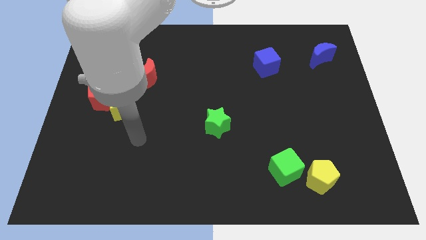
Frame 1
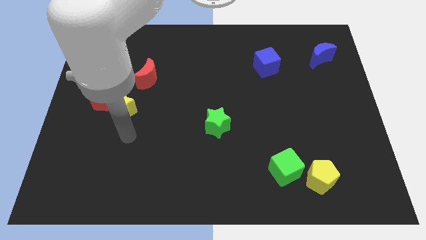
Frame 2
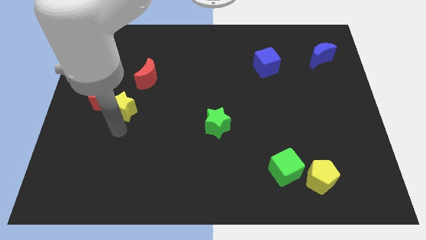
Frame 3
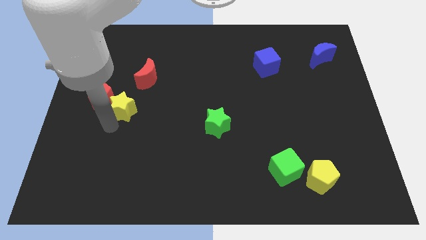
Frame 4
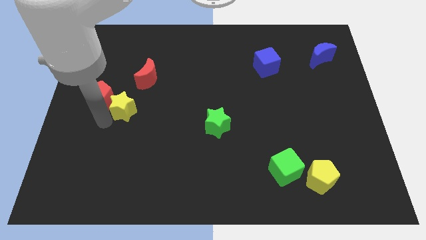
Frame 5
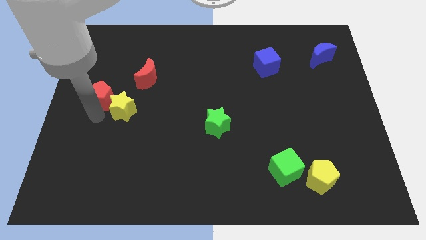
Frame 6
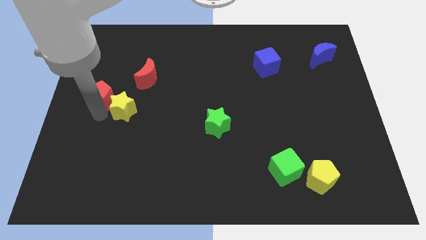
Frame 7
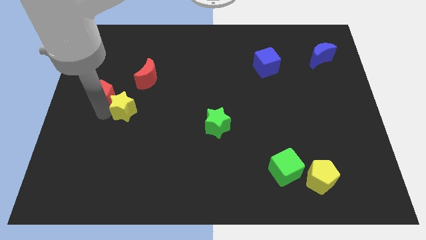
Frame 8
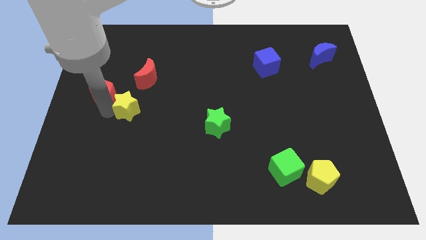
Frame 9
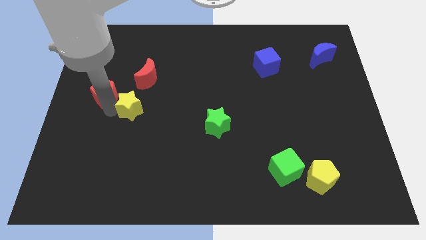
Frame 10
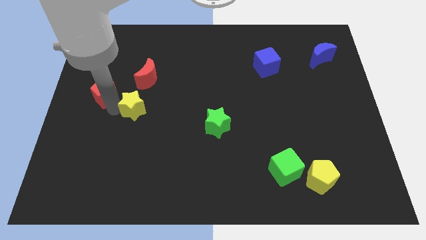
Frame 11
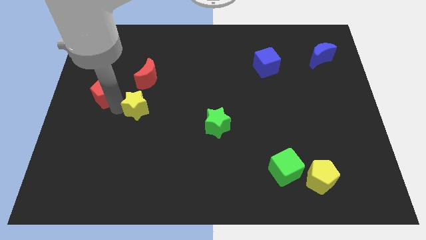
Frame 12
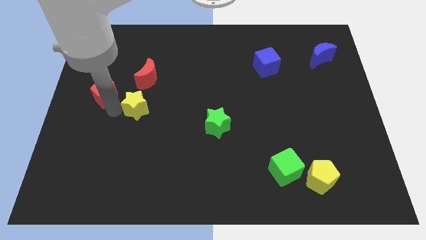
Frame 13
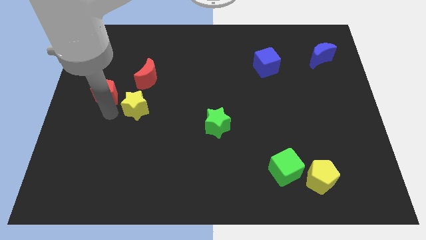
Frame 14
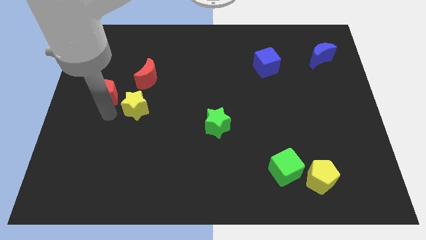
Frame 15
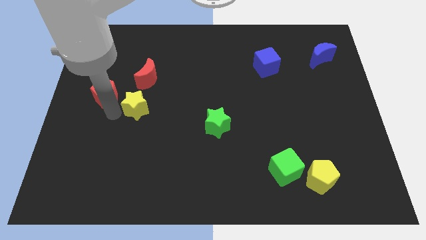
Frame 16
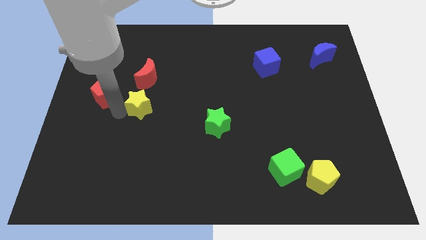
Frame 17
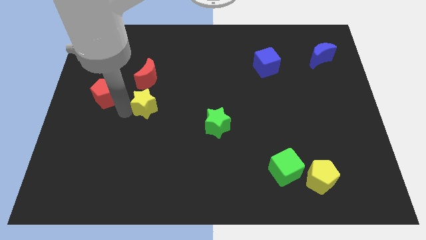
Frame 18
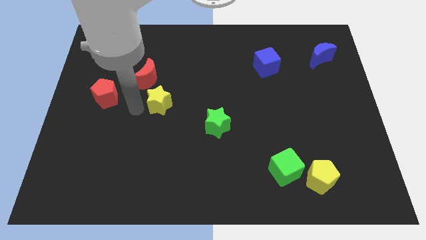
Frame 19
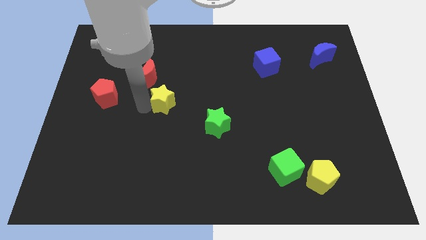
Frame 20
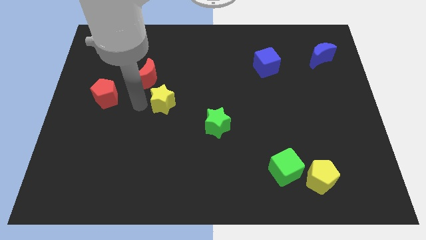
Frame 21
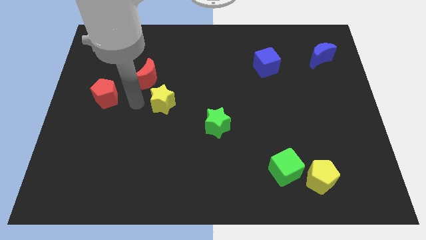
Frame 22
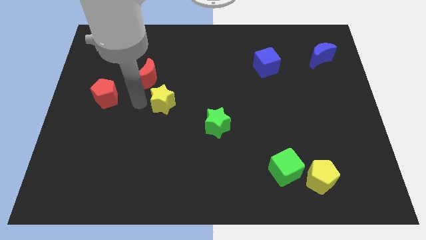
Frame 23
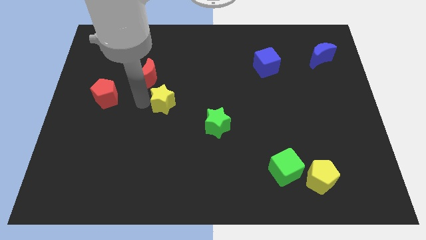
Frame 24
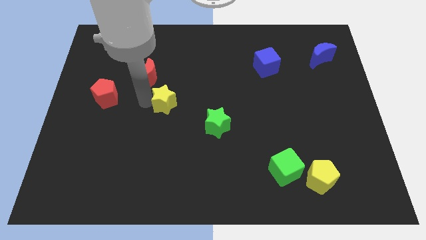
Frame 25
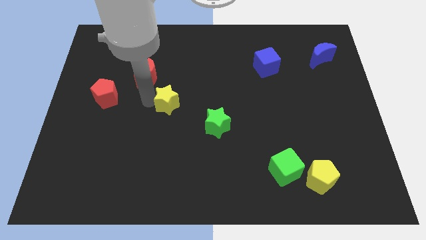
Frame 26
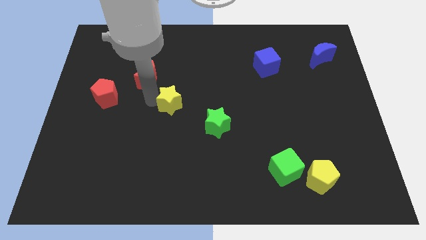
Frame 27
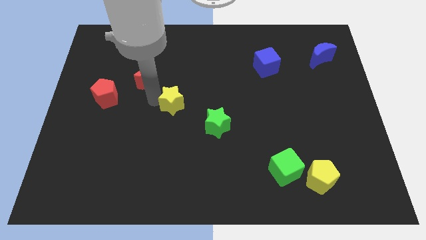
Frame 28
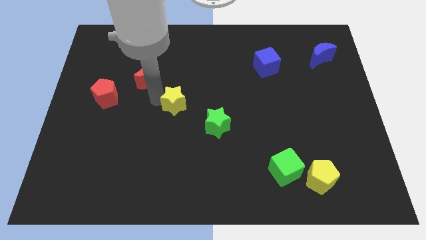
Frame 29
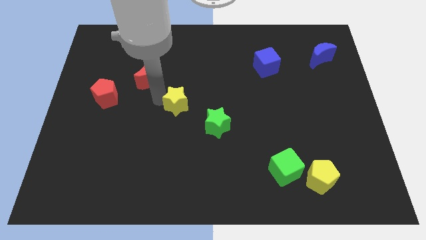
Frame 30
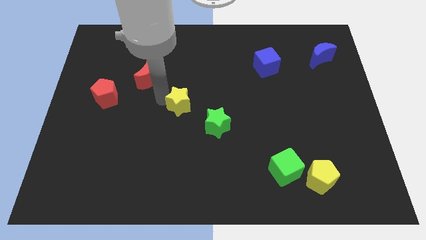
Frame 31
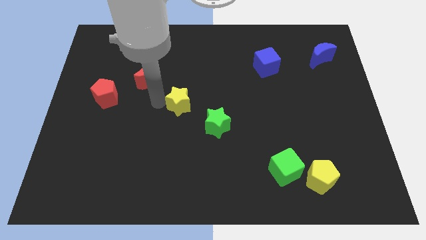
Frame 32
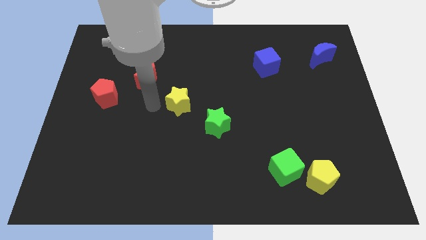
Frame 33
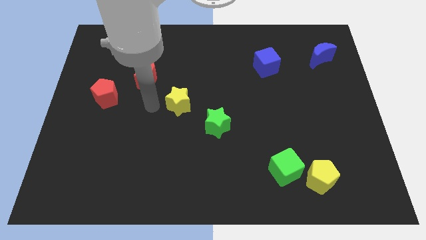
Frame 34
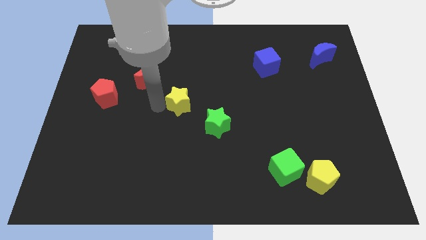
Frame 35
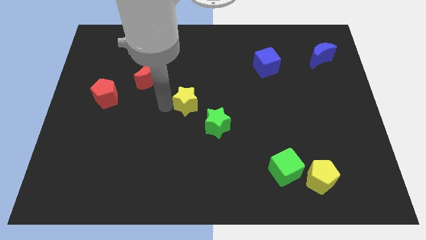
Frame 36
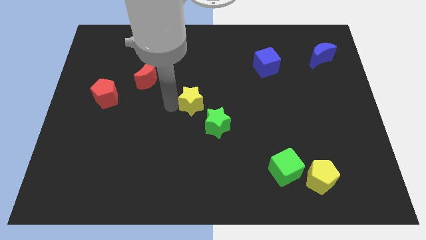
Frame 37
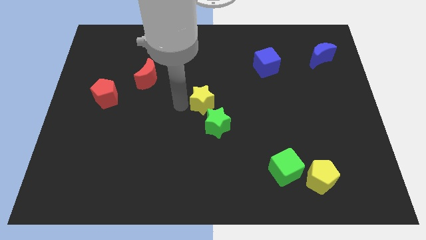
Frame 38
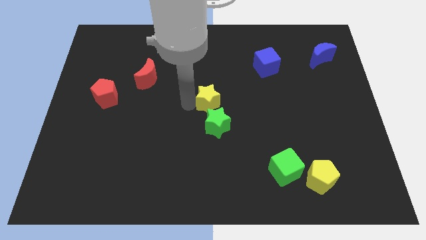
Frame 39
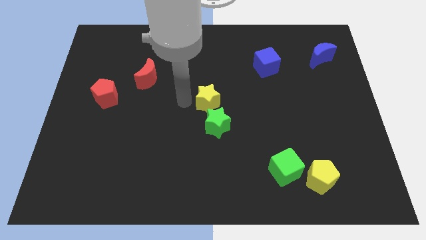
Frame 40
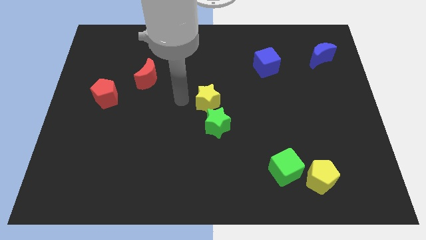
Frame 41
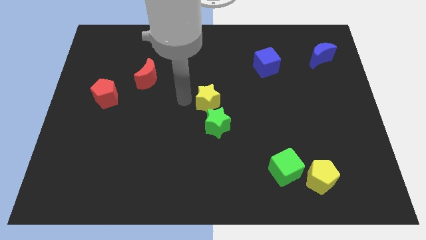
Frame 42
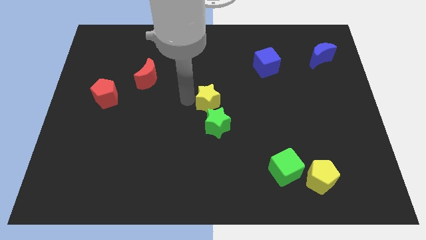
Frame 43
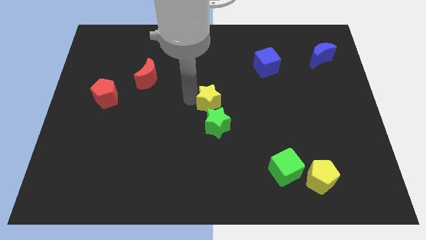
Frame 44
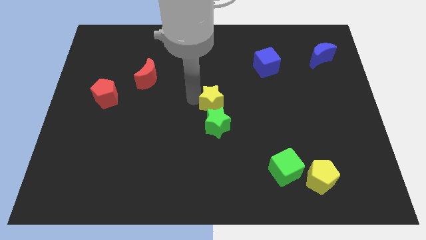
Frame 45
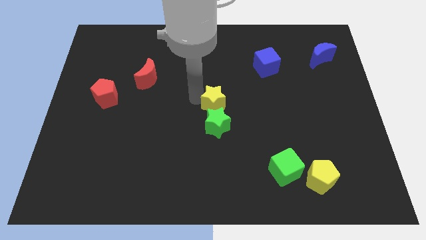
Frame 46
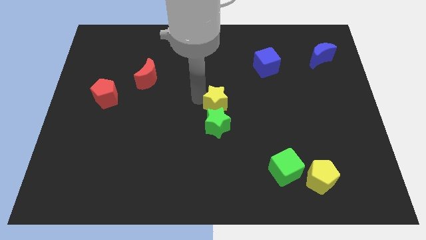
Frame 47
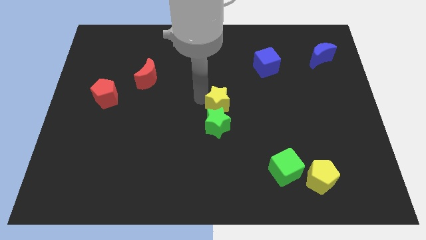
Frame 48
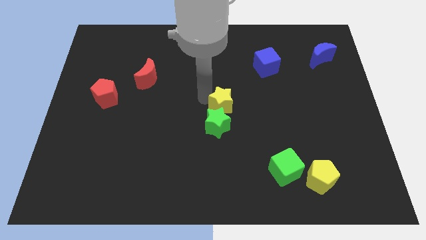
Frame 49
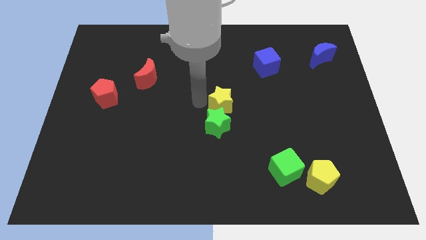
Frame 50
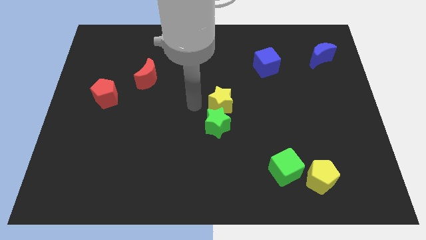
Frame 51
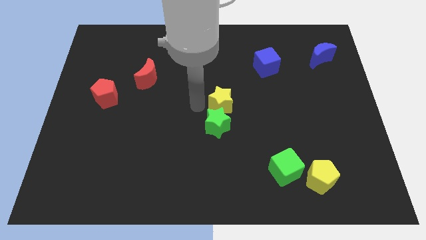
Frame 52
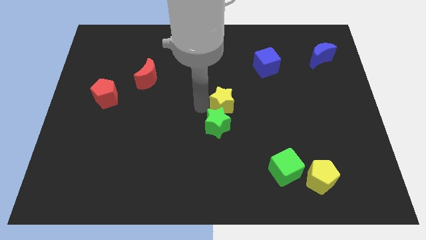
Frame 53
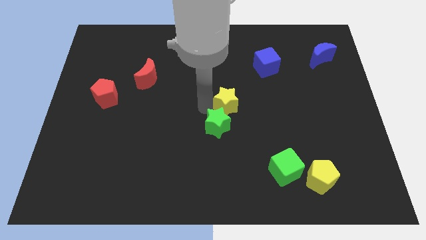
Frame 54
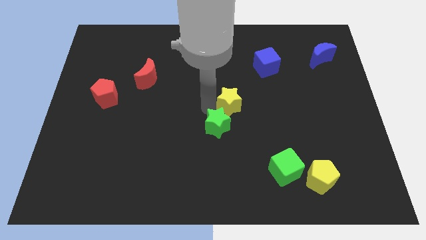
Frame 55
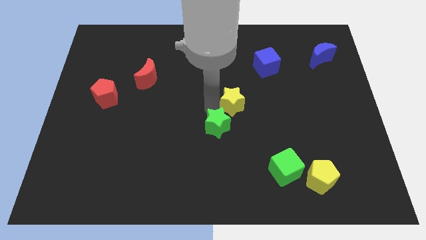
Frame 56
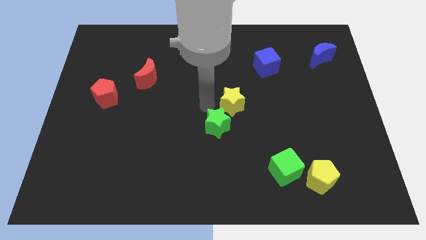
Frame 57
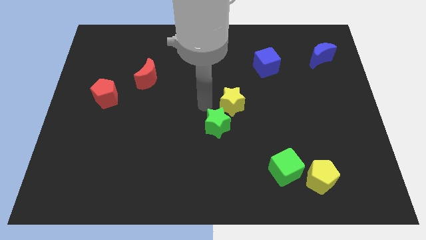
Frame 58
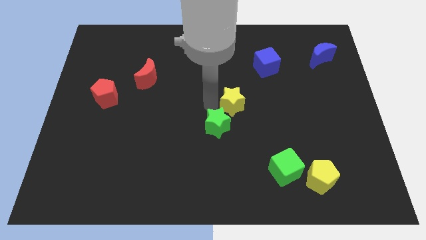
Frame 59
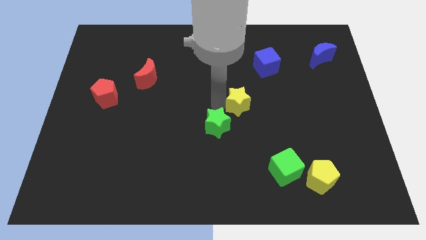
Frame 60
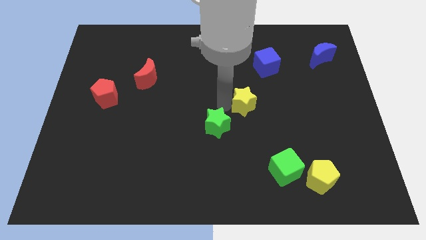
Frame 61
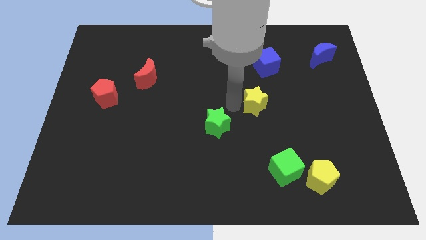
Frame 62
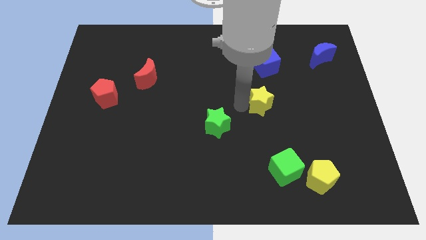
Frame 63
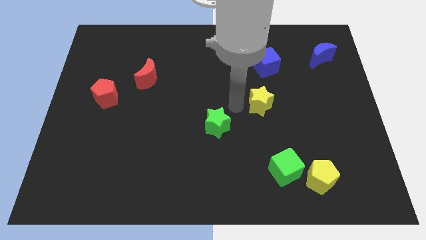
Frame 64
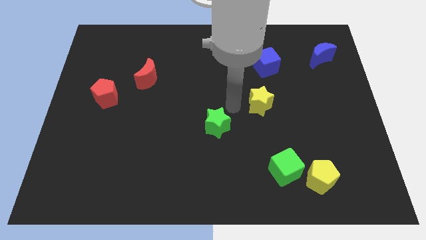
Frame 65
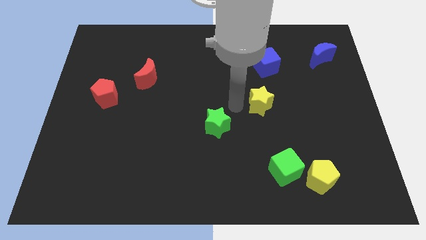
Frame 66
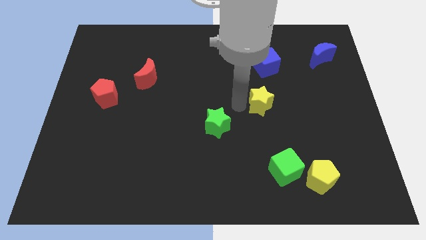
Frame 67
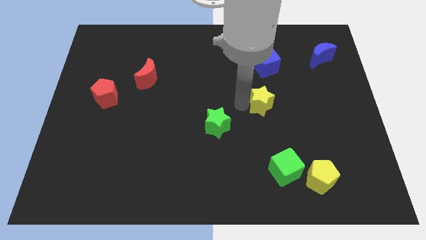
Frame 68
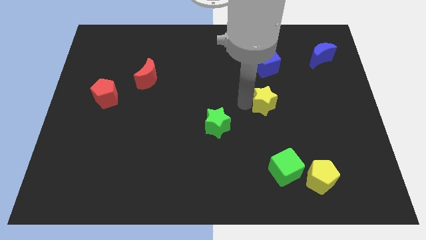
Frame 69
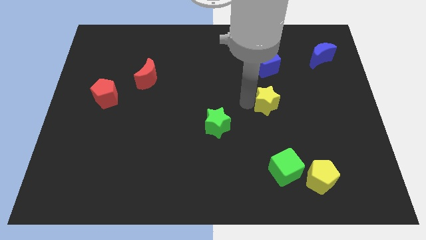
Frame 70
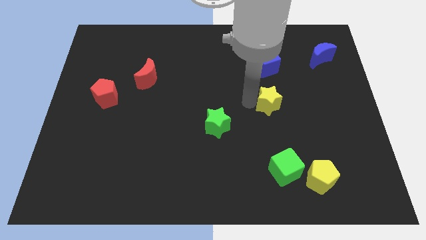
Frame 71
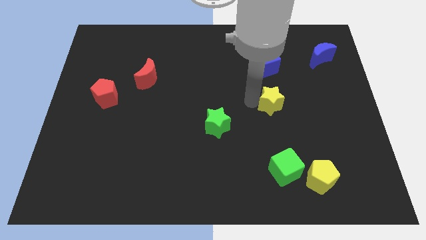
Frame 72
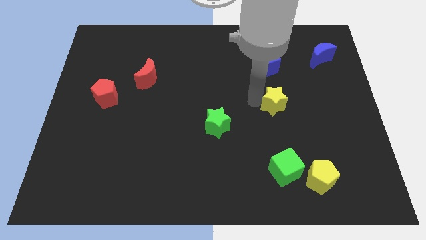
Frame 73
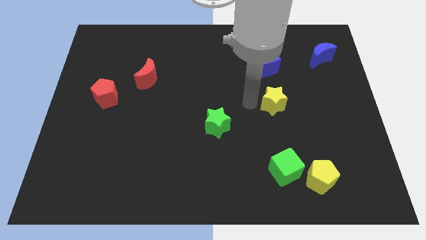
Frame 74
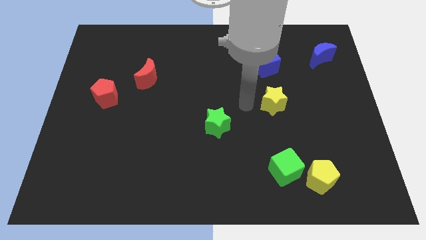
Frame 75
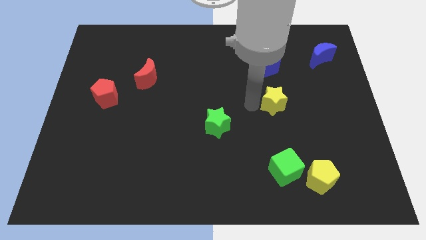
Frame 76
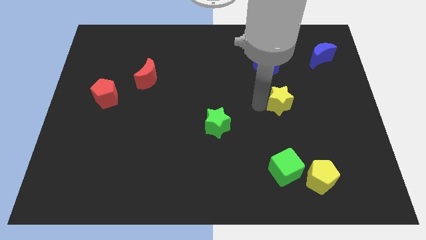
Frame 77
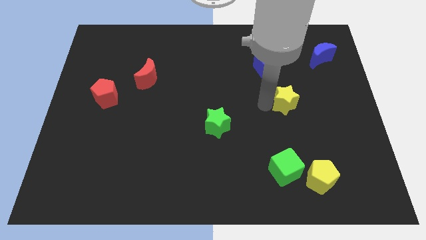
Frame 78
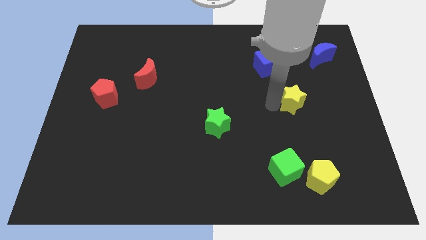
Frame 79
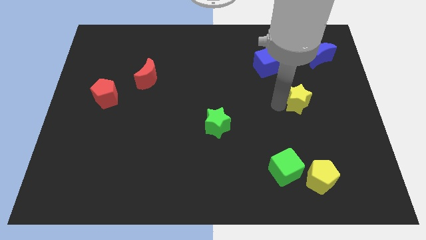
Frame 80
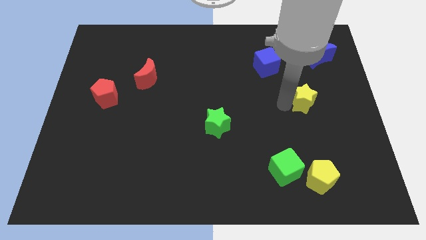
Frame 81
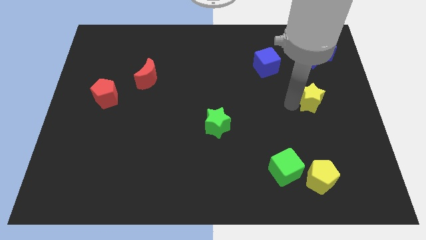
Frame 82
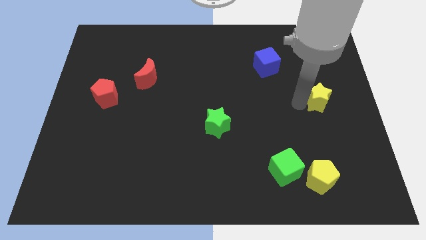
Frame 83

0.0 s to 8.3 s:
put the yellow star to the right side
